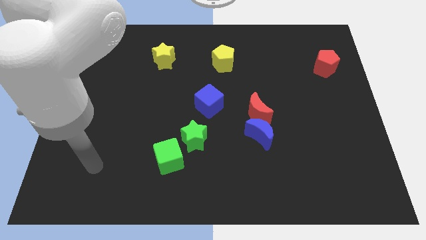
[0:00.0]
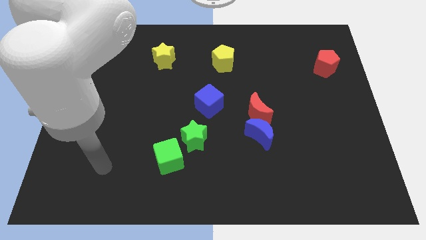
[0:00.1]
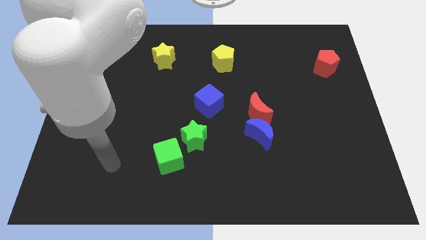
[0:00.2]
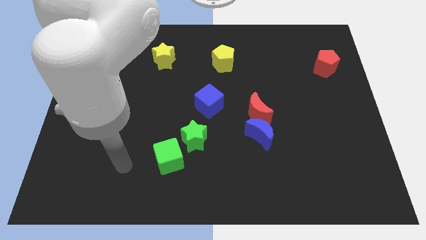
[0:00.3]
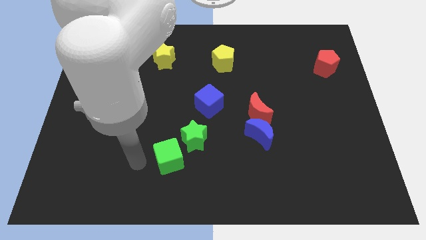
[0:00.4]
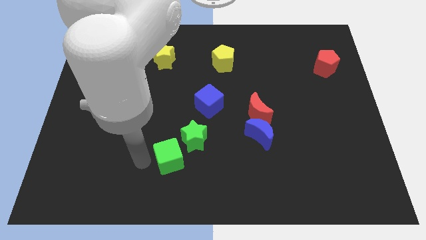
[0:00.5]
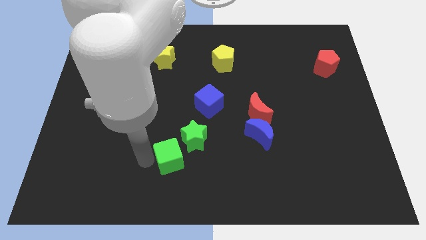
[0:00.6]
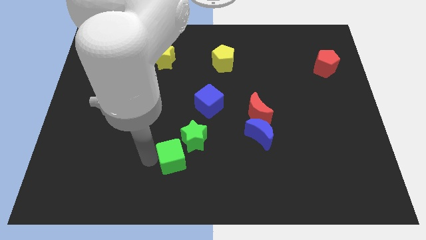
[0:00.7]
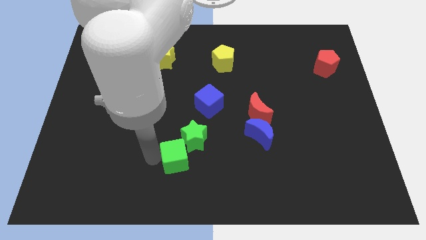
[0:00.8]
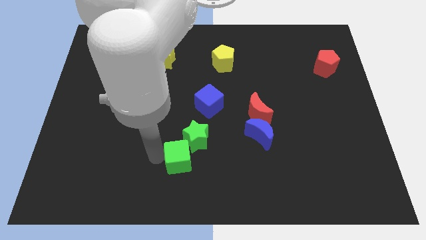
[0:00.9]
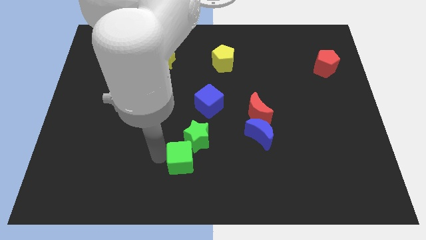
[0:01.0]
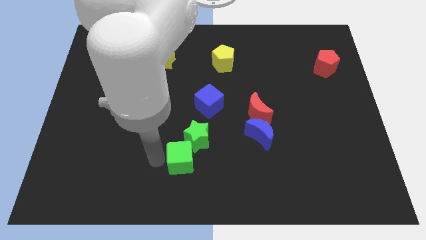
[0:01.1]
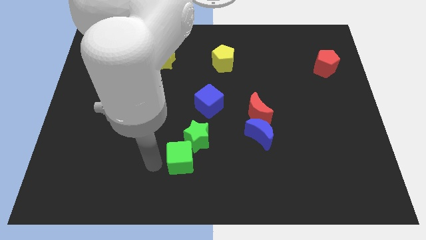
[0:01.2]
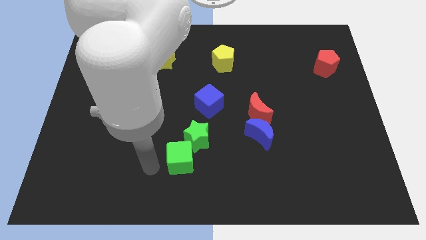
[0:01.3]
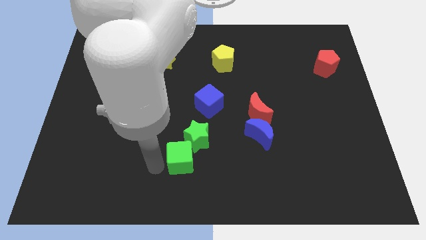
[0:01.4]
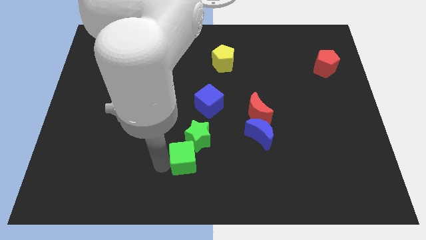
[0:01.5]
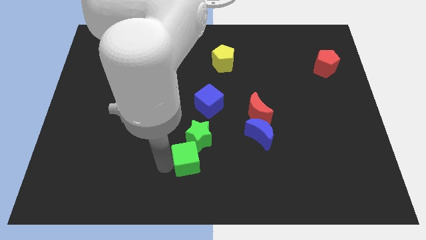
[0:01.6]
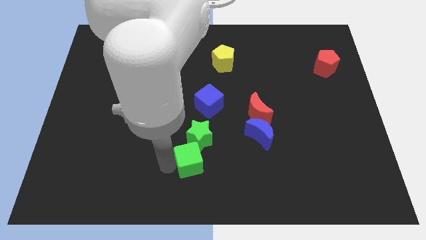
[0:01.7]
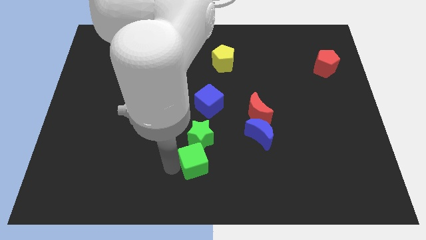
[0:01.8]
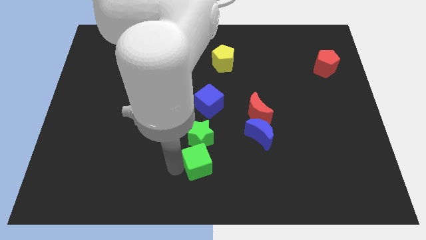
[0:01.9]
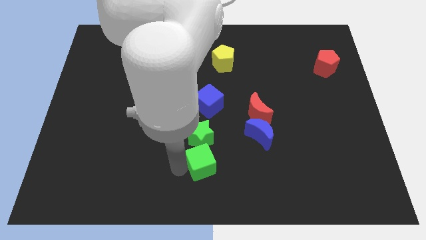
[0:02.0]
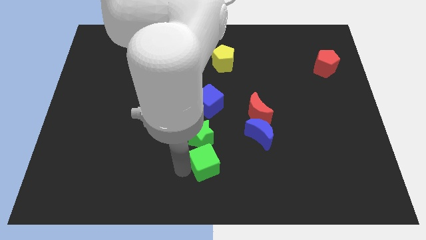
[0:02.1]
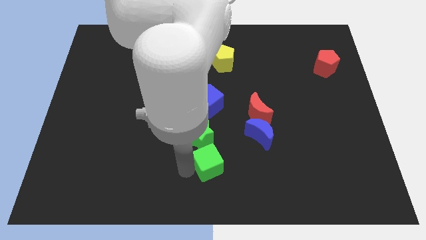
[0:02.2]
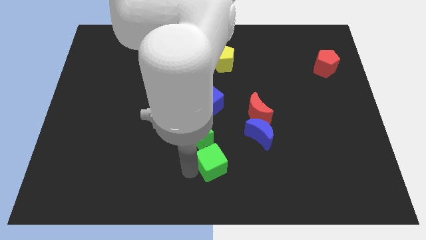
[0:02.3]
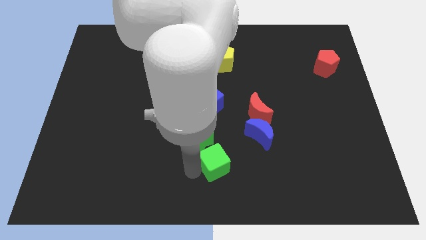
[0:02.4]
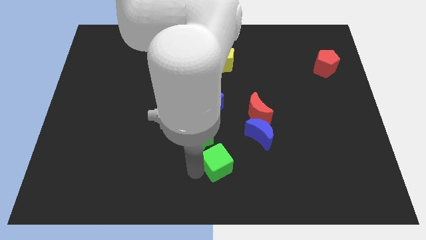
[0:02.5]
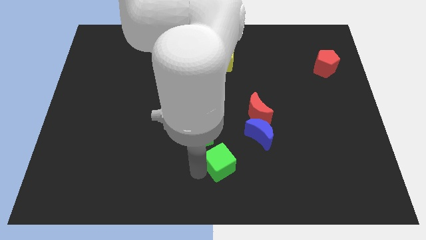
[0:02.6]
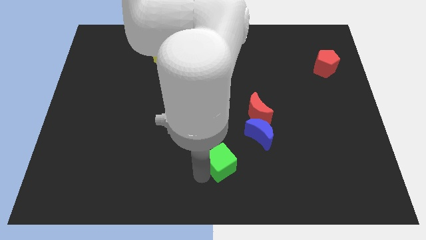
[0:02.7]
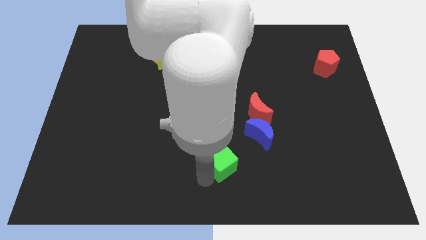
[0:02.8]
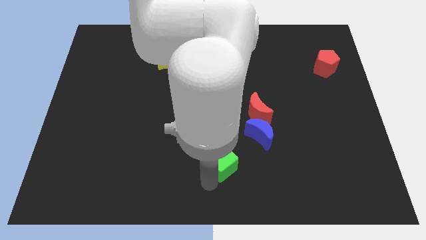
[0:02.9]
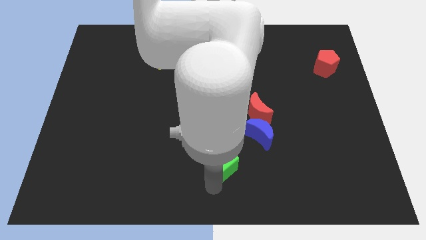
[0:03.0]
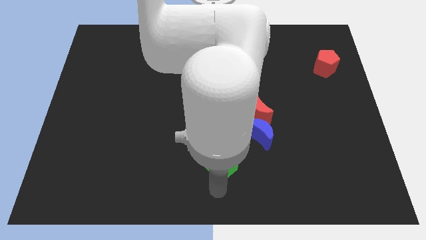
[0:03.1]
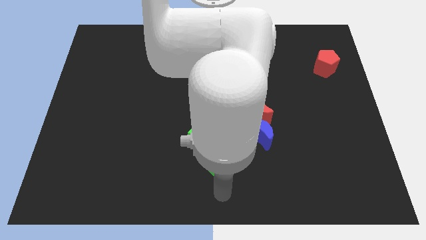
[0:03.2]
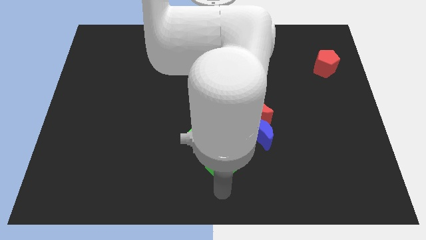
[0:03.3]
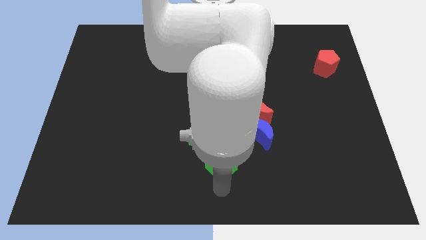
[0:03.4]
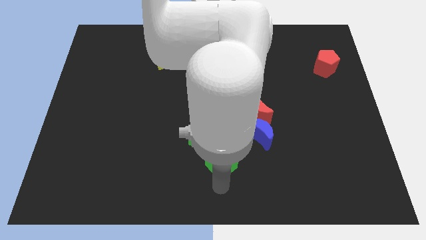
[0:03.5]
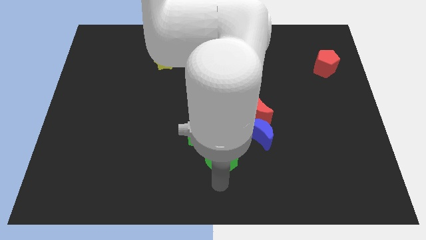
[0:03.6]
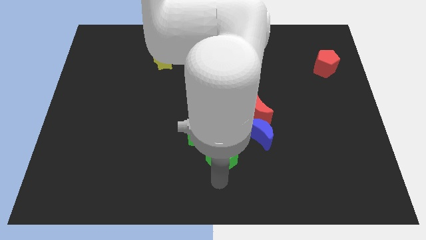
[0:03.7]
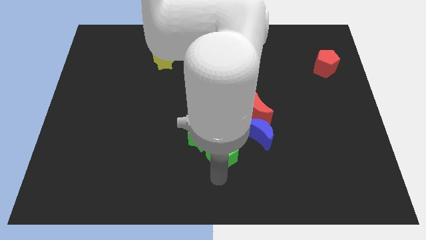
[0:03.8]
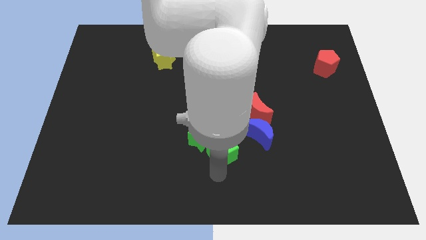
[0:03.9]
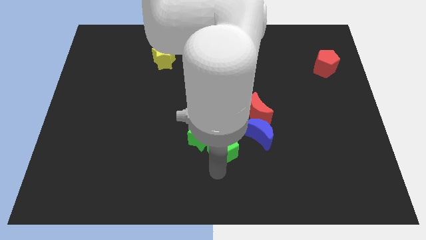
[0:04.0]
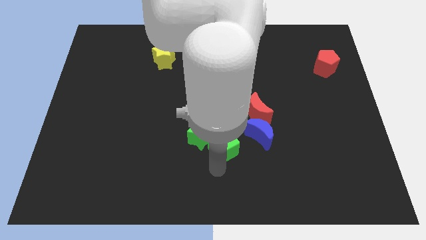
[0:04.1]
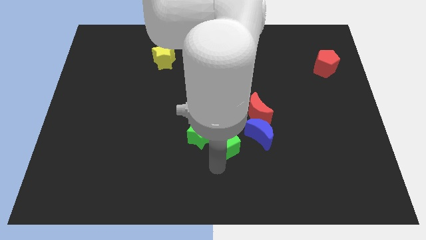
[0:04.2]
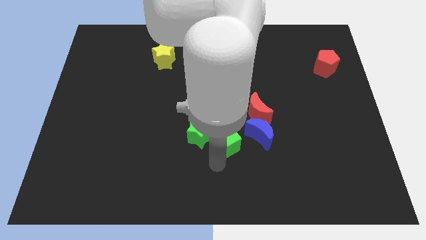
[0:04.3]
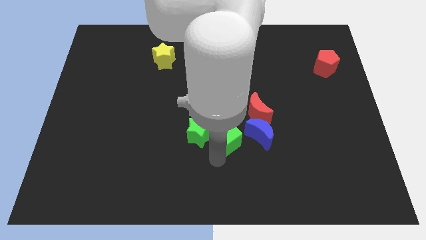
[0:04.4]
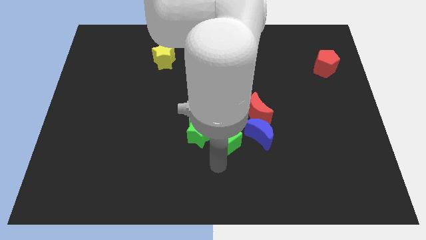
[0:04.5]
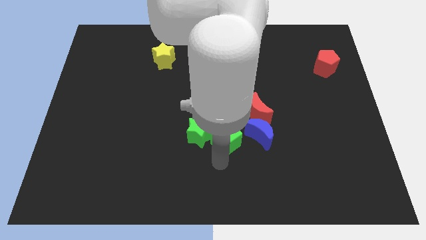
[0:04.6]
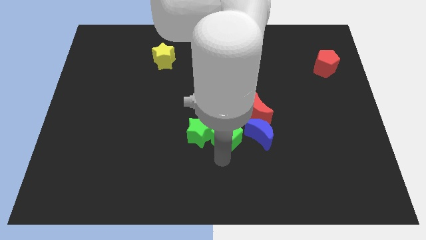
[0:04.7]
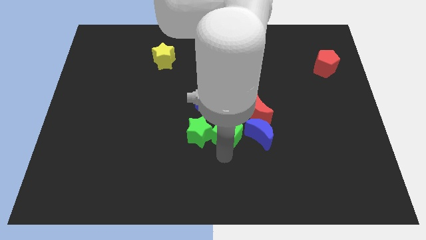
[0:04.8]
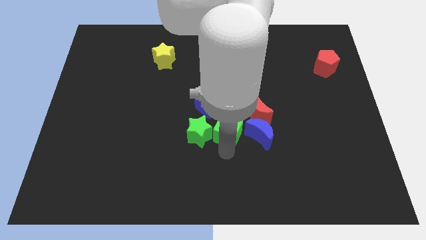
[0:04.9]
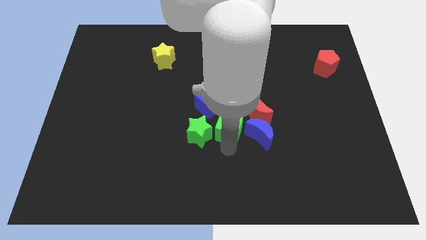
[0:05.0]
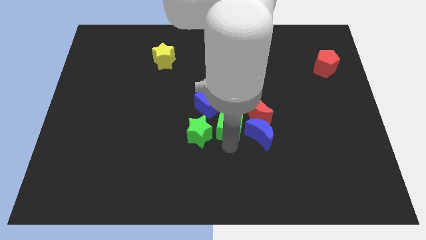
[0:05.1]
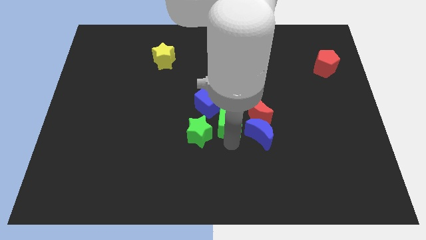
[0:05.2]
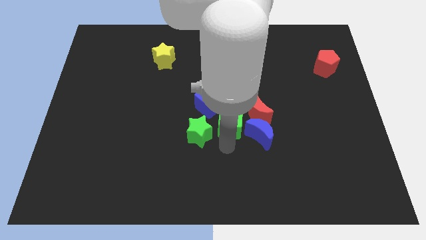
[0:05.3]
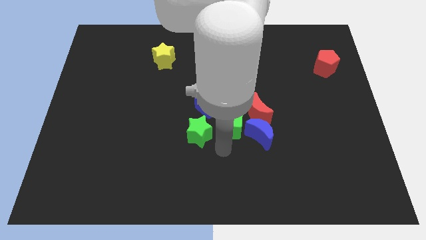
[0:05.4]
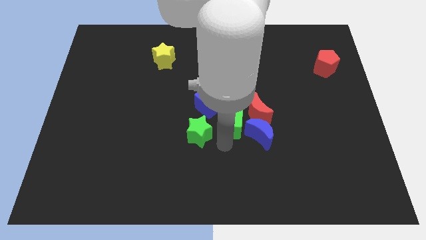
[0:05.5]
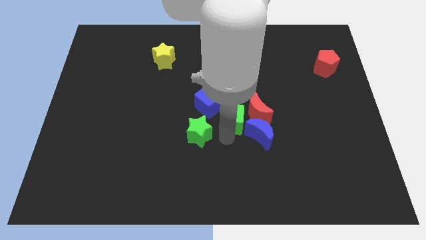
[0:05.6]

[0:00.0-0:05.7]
move the green cube right of the blue cube

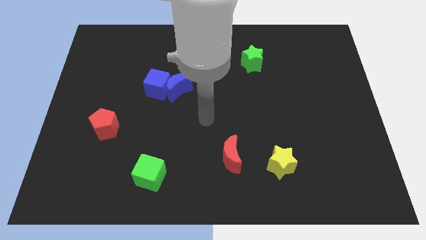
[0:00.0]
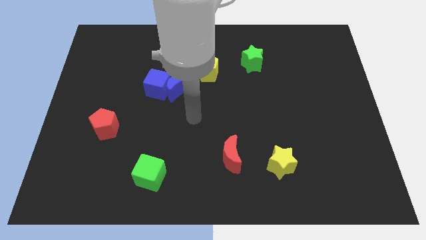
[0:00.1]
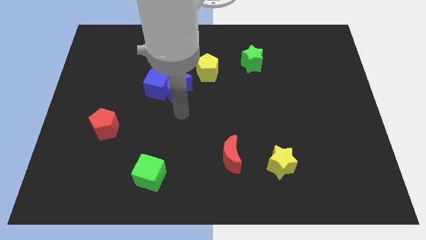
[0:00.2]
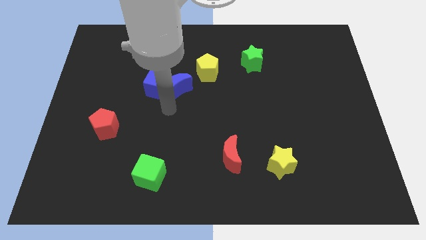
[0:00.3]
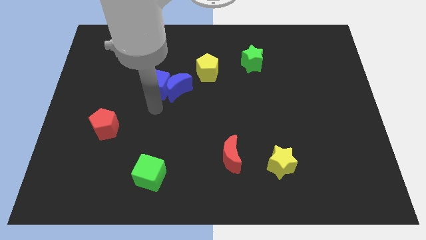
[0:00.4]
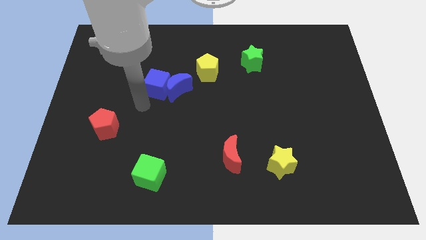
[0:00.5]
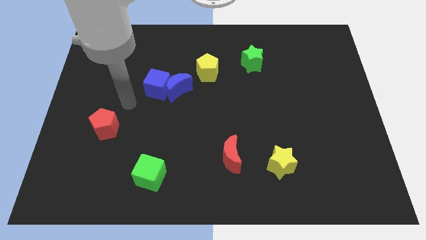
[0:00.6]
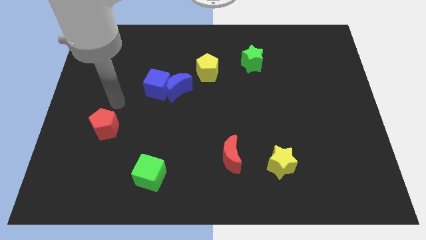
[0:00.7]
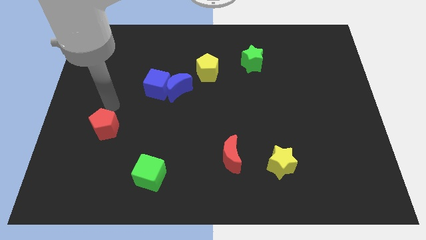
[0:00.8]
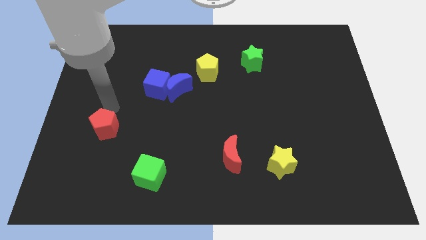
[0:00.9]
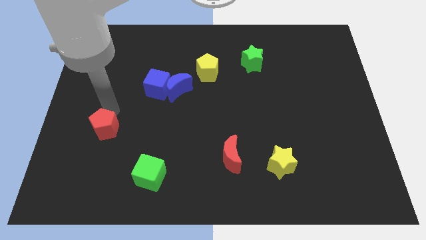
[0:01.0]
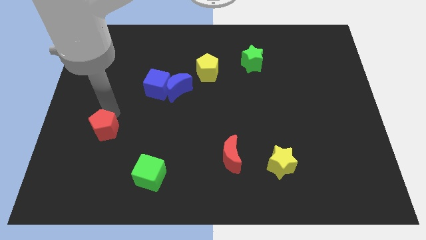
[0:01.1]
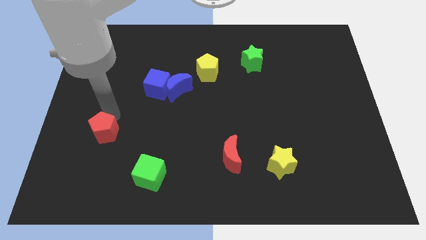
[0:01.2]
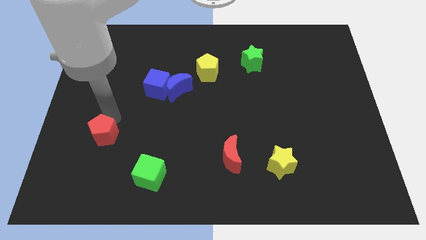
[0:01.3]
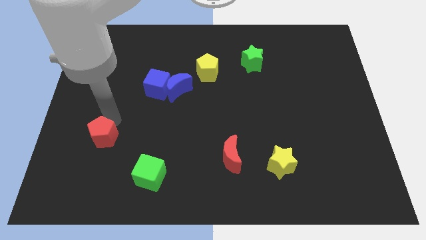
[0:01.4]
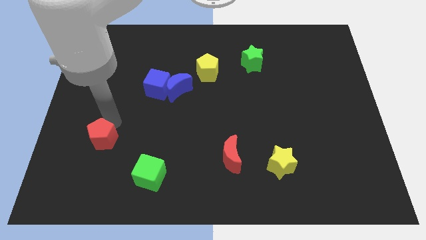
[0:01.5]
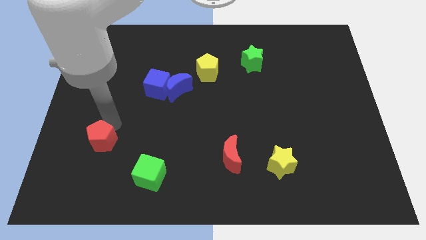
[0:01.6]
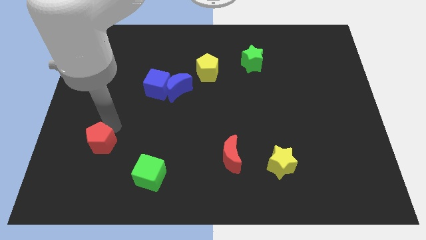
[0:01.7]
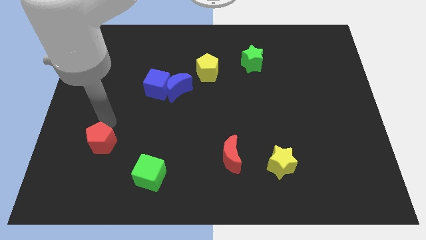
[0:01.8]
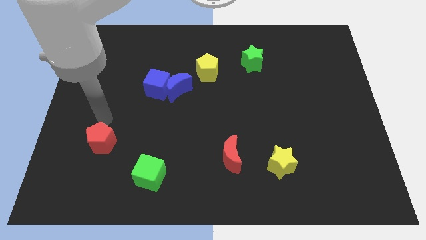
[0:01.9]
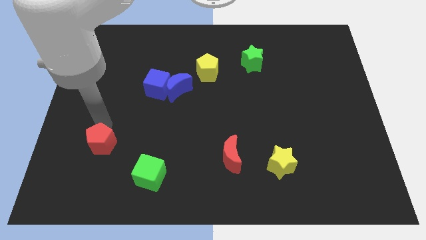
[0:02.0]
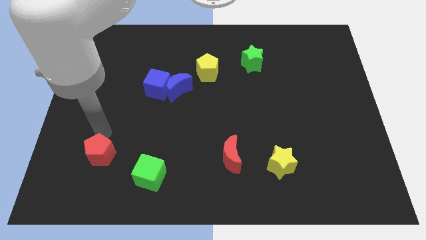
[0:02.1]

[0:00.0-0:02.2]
move the red pentagon to the left side of the green cube
